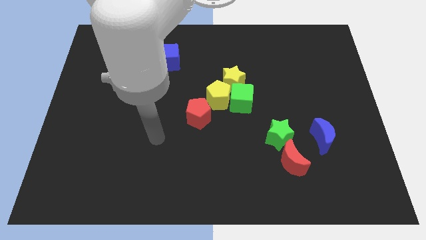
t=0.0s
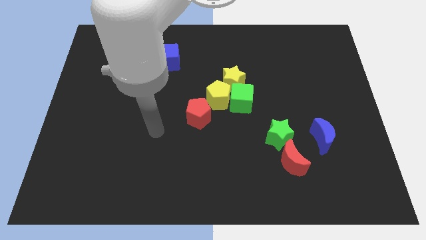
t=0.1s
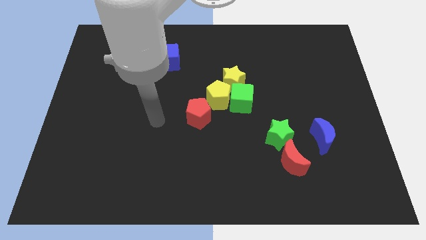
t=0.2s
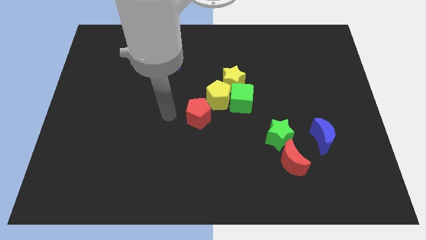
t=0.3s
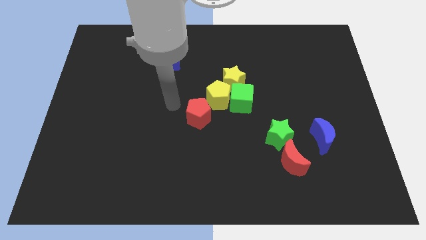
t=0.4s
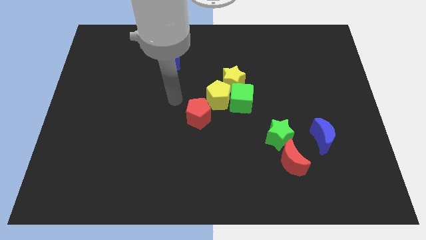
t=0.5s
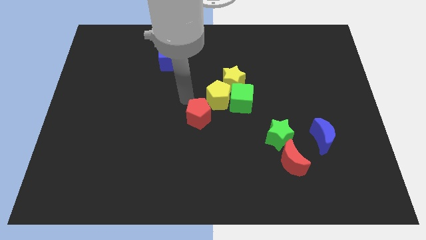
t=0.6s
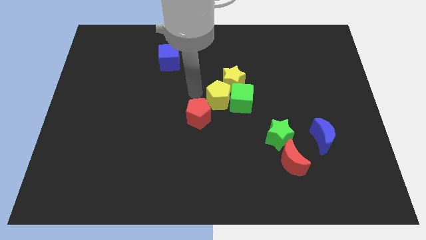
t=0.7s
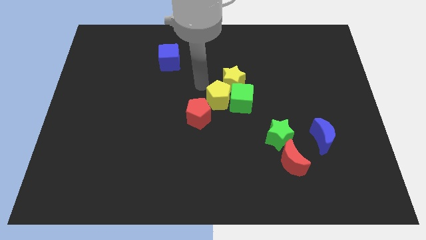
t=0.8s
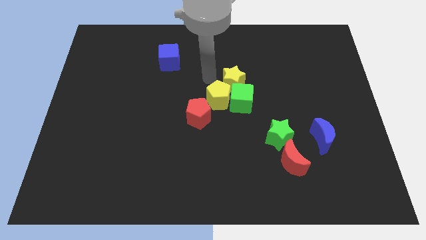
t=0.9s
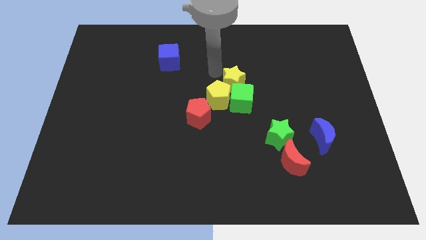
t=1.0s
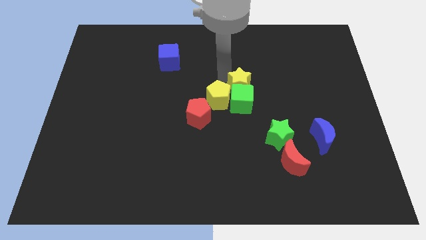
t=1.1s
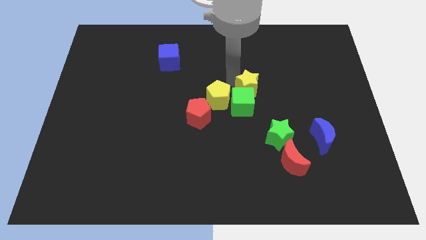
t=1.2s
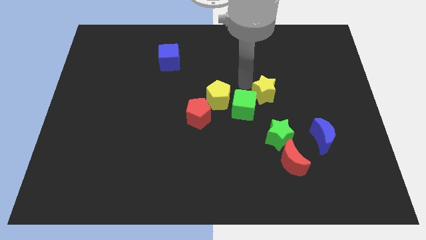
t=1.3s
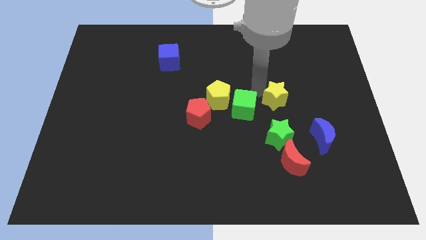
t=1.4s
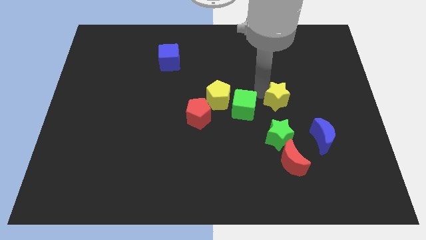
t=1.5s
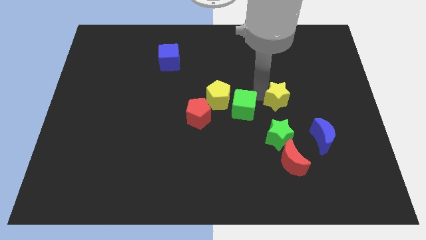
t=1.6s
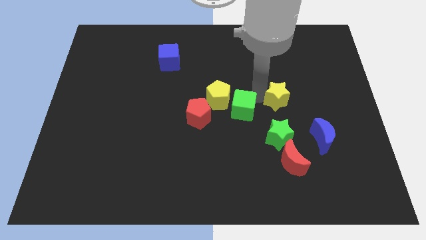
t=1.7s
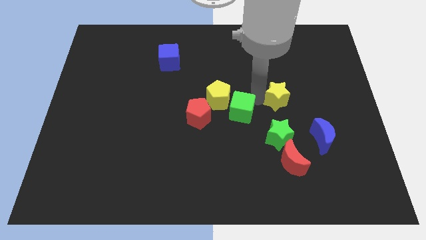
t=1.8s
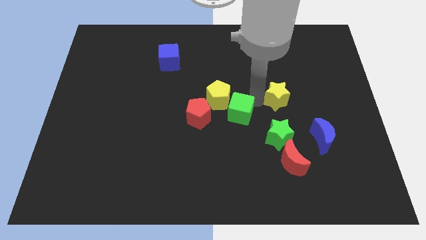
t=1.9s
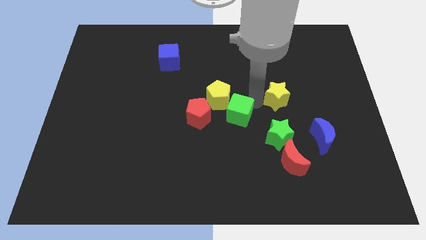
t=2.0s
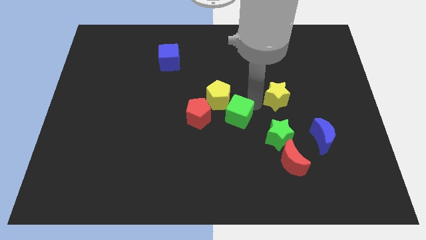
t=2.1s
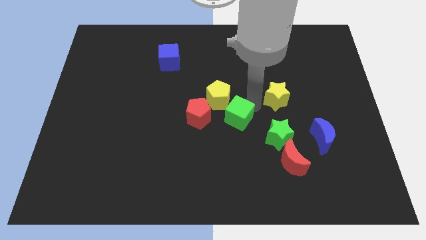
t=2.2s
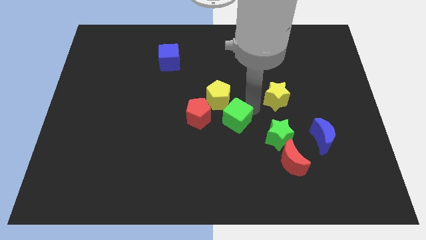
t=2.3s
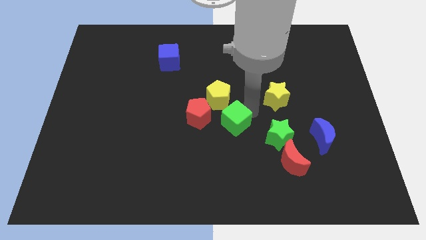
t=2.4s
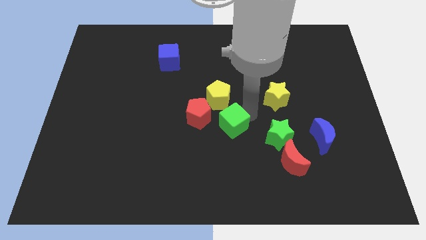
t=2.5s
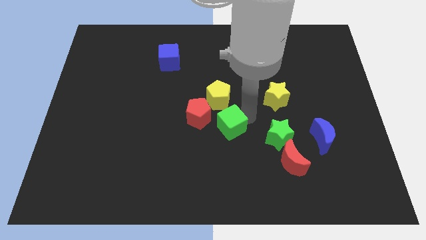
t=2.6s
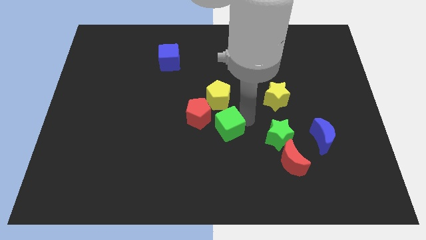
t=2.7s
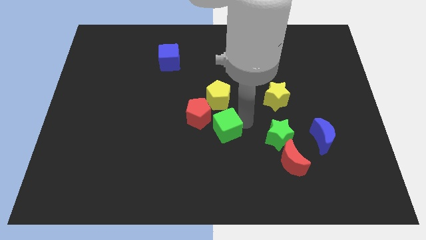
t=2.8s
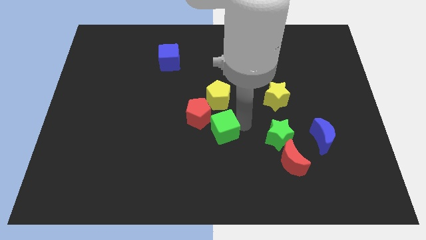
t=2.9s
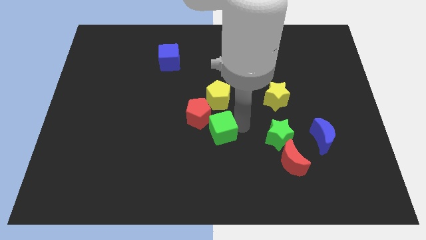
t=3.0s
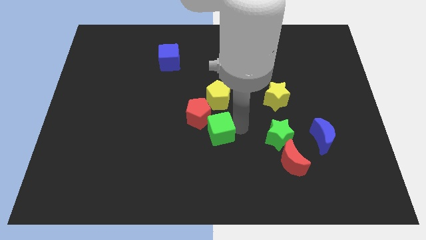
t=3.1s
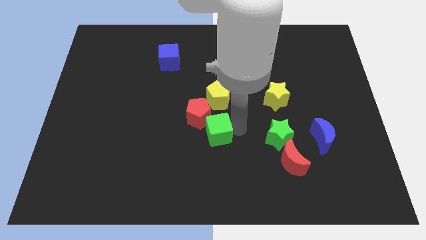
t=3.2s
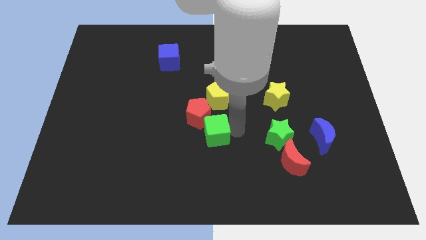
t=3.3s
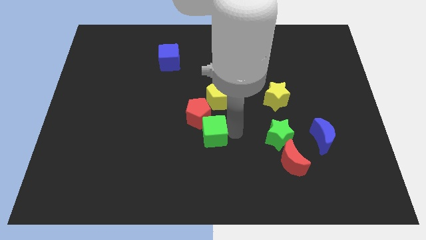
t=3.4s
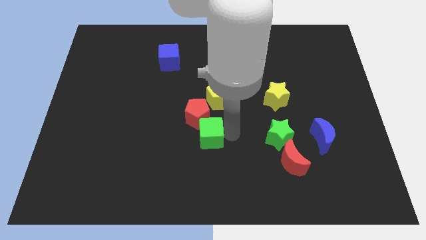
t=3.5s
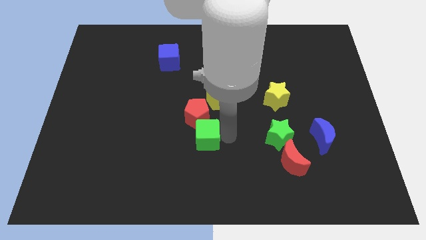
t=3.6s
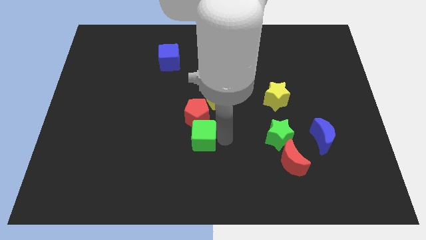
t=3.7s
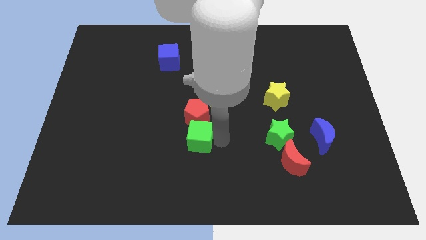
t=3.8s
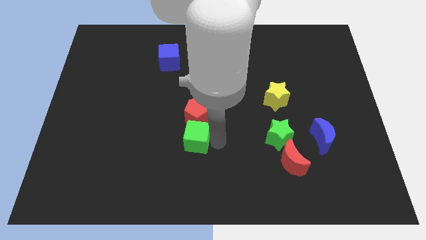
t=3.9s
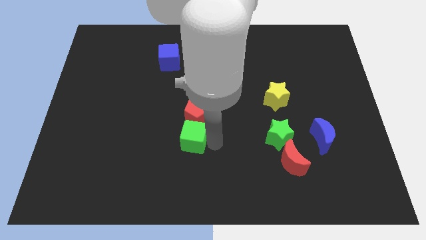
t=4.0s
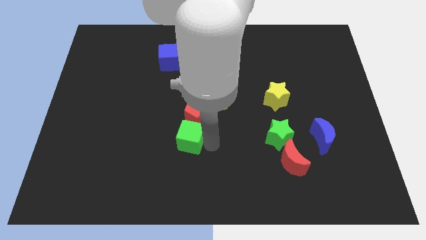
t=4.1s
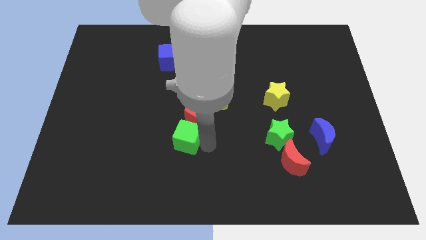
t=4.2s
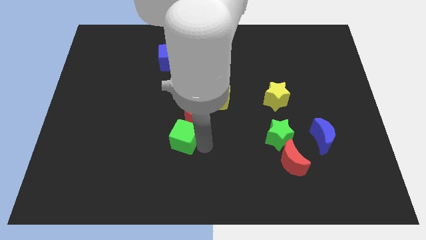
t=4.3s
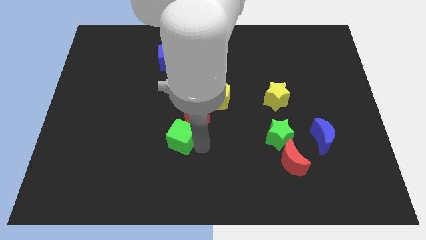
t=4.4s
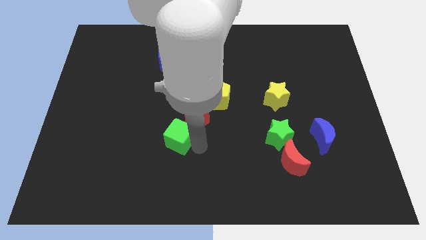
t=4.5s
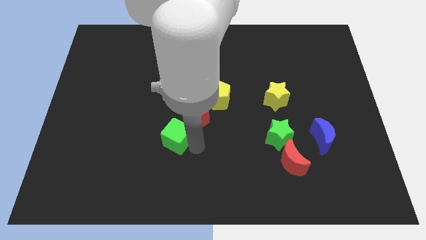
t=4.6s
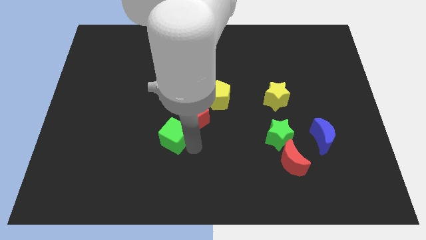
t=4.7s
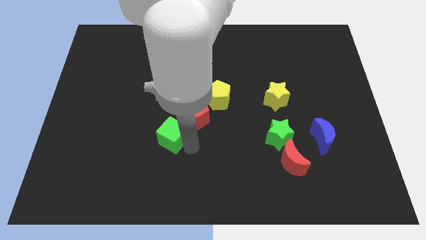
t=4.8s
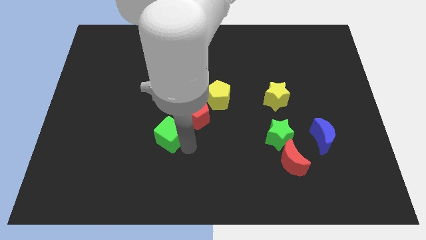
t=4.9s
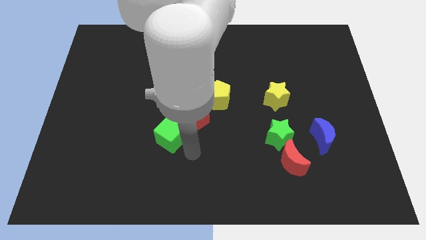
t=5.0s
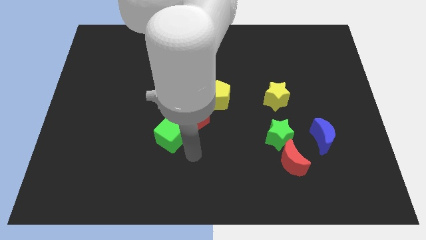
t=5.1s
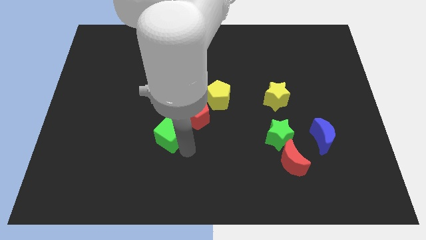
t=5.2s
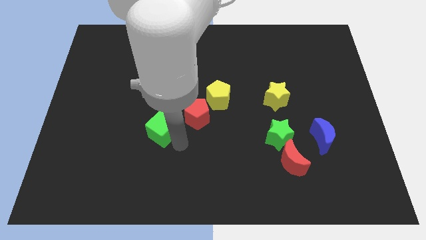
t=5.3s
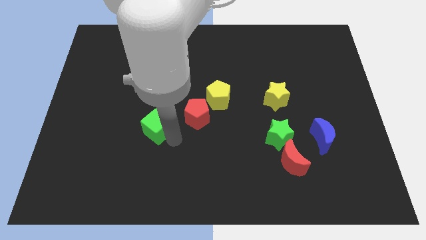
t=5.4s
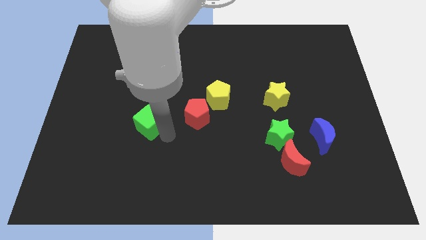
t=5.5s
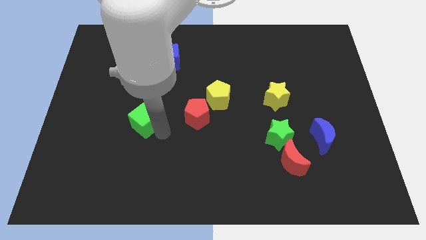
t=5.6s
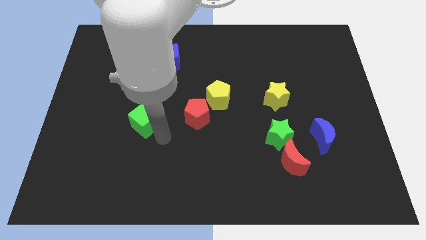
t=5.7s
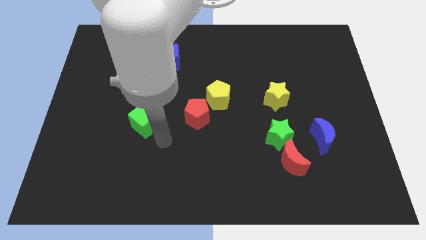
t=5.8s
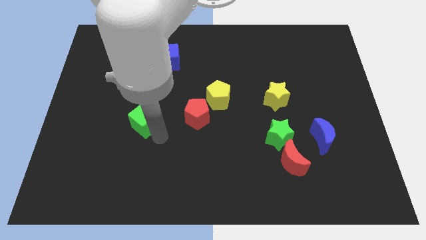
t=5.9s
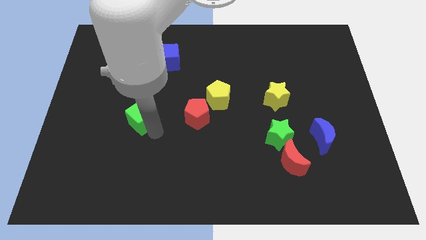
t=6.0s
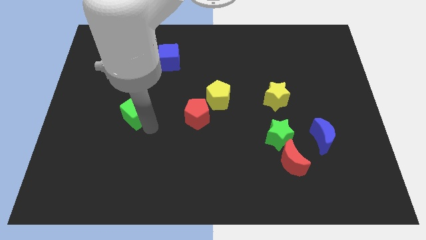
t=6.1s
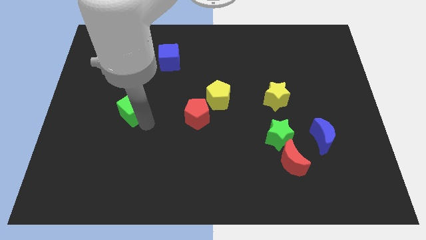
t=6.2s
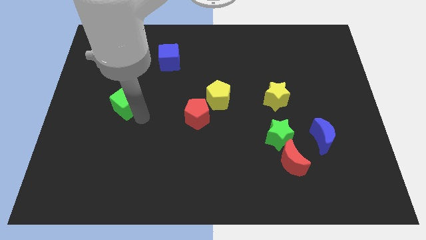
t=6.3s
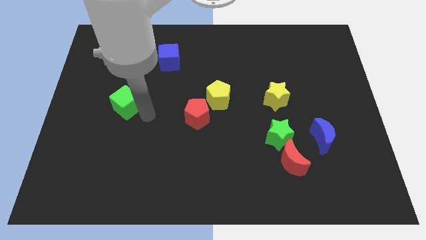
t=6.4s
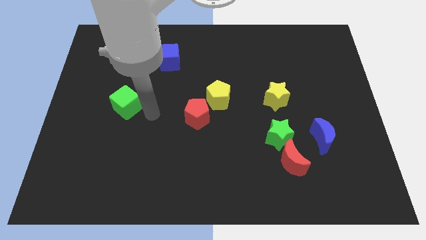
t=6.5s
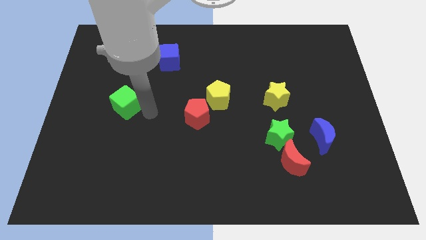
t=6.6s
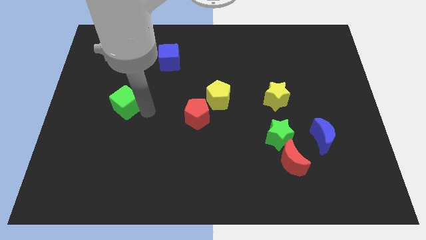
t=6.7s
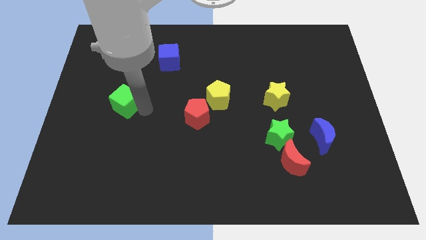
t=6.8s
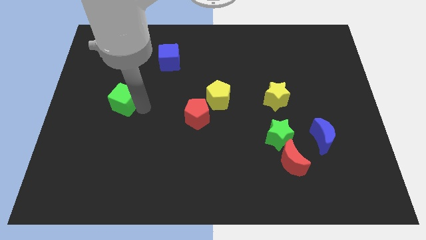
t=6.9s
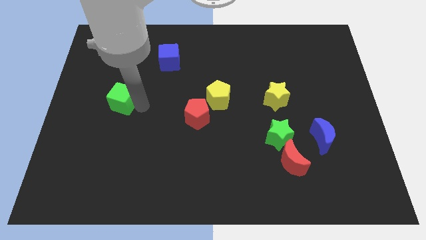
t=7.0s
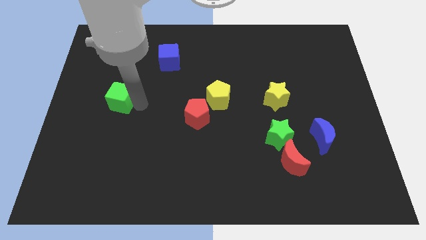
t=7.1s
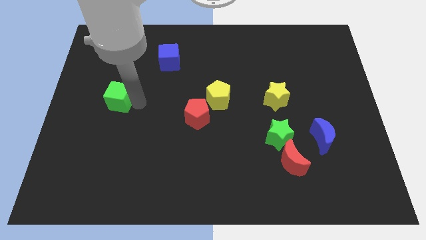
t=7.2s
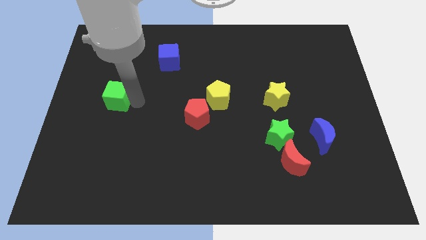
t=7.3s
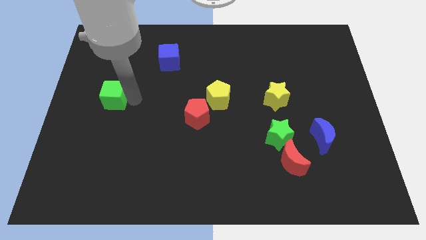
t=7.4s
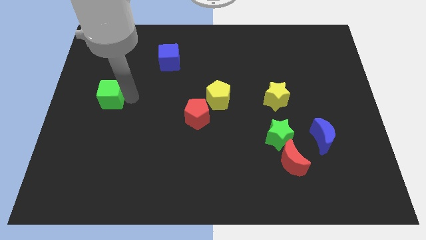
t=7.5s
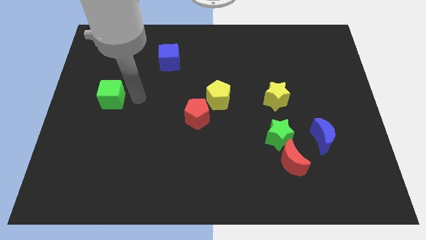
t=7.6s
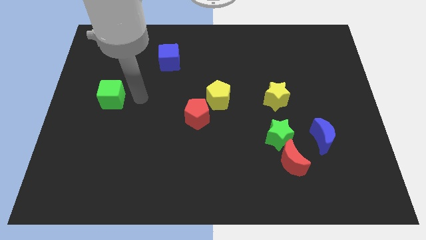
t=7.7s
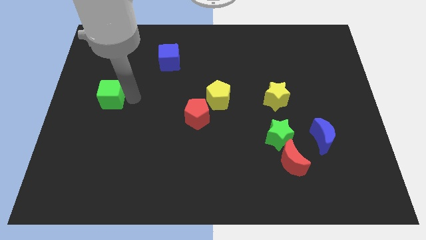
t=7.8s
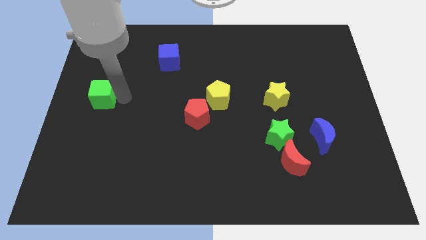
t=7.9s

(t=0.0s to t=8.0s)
move the green cube to the center left
